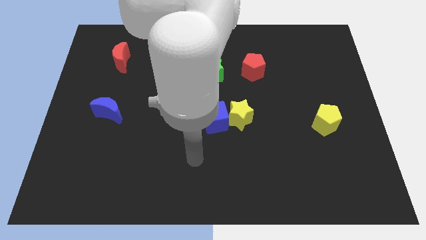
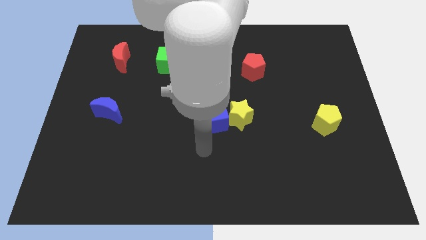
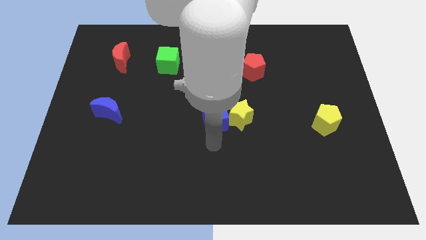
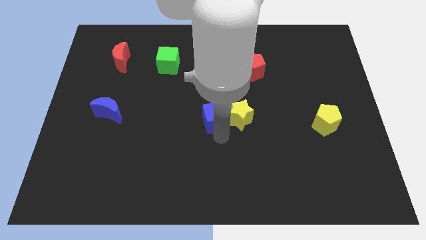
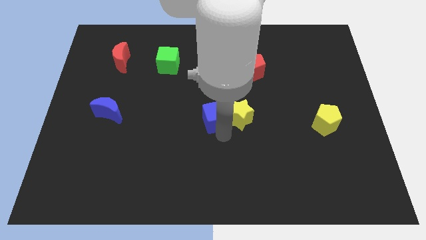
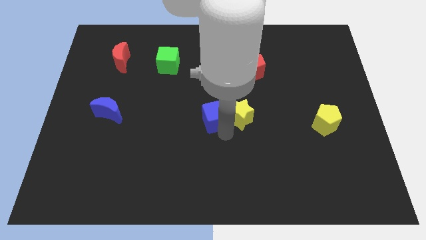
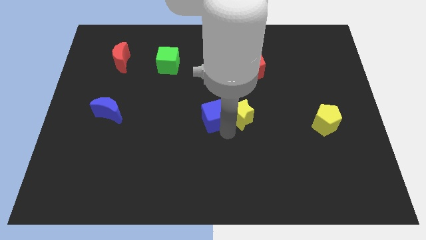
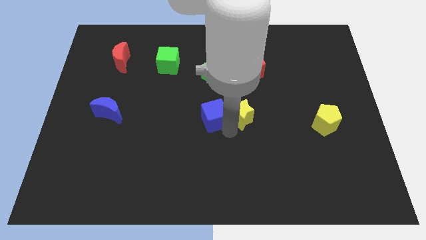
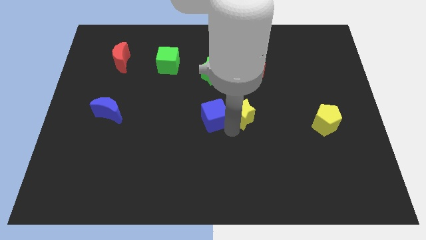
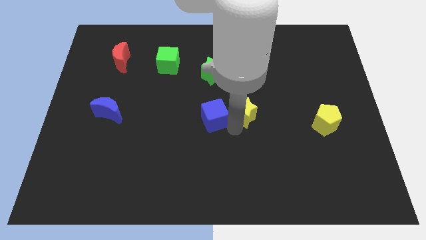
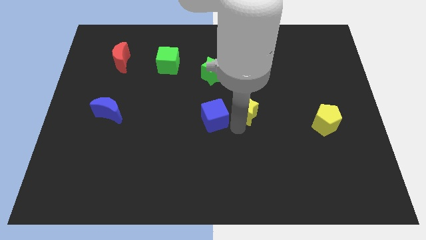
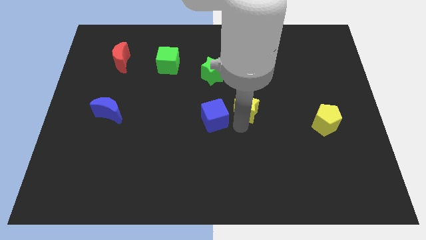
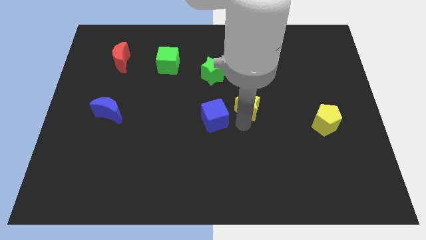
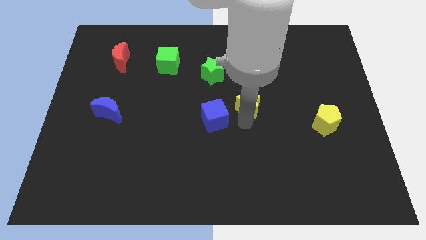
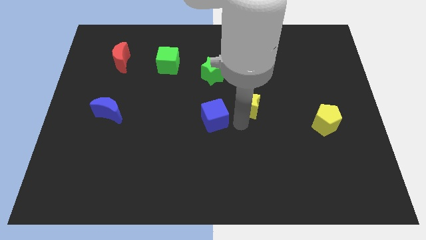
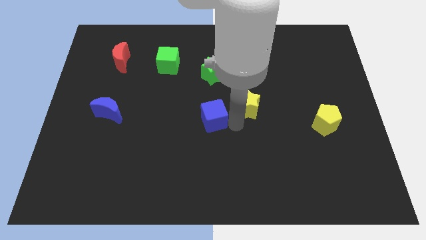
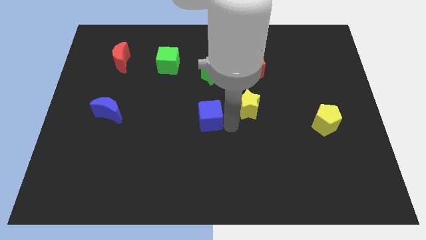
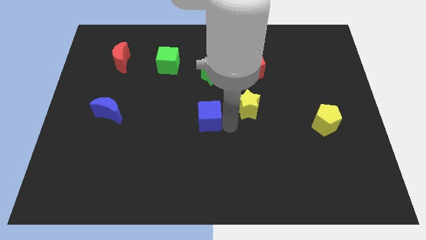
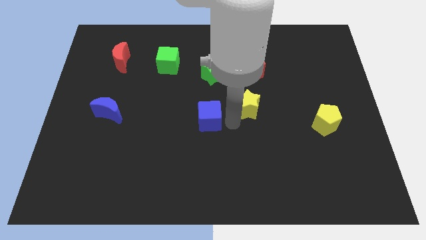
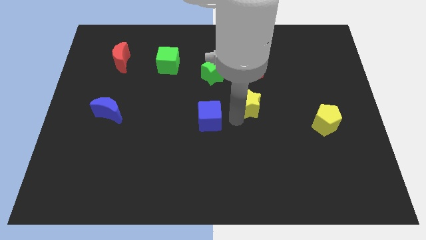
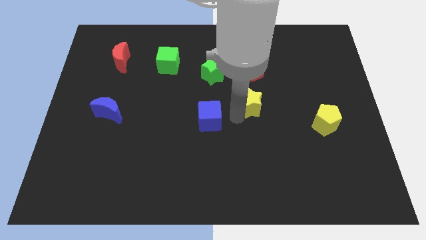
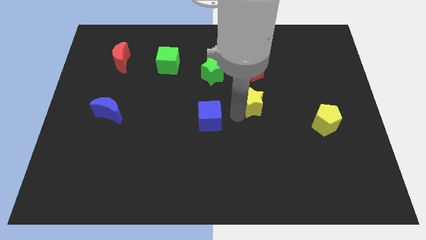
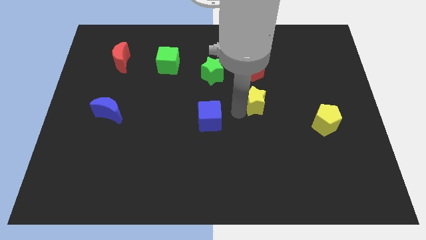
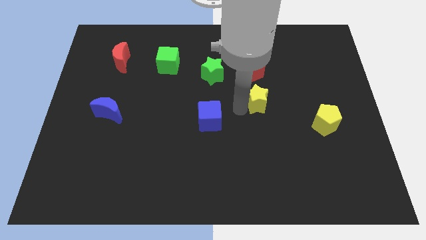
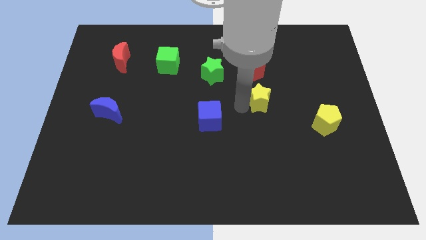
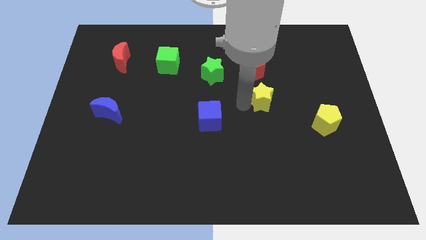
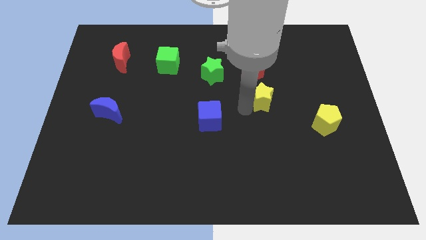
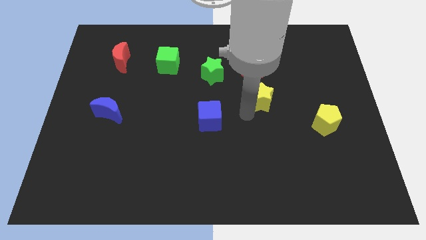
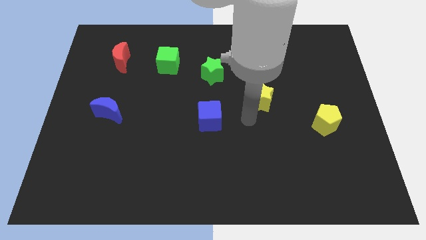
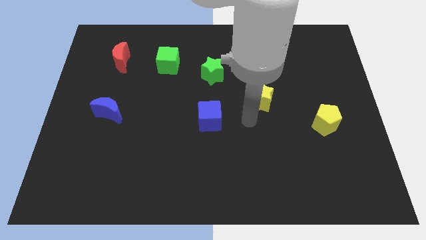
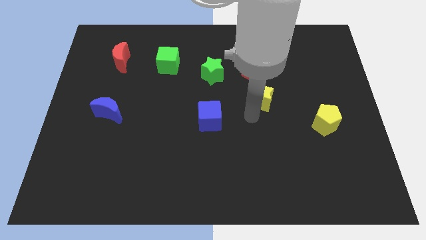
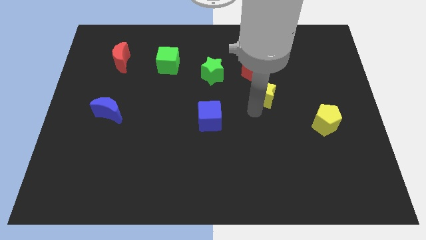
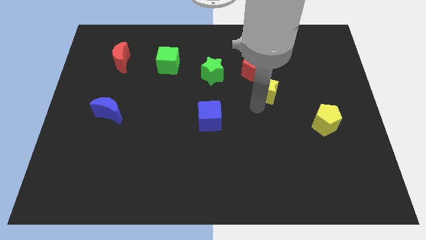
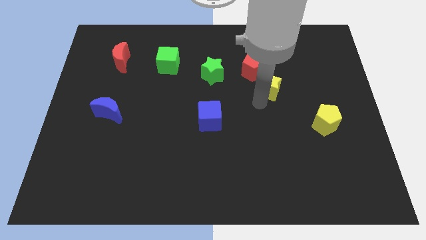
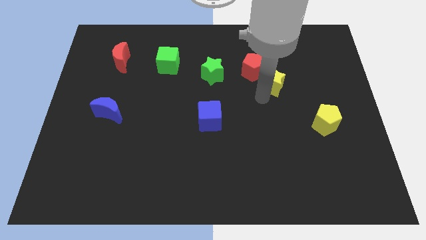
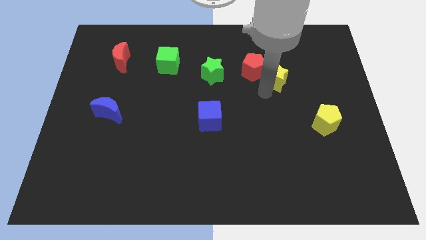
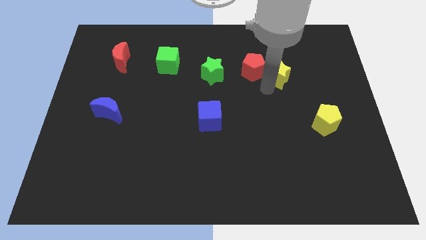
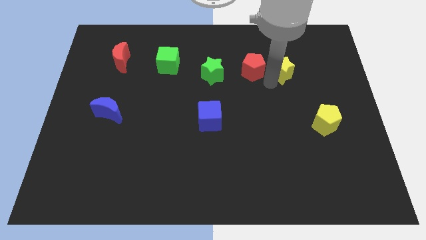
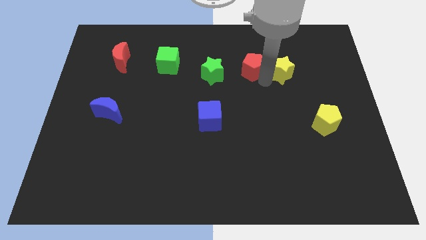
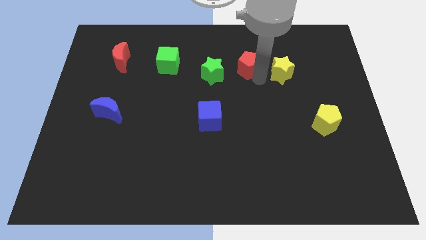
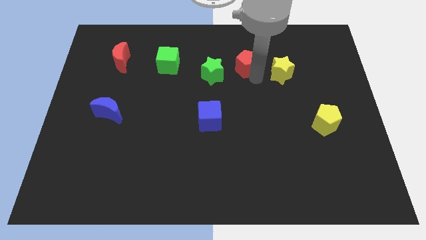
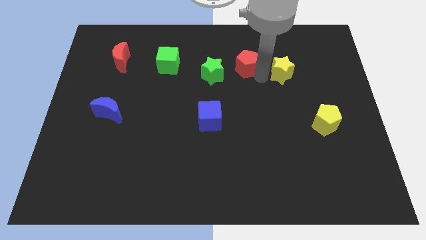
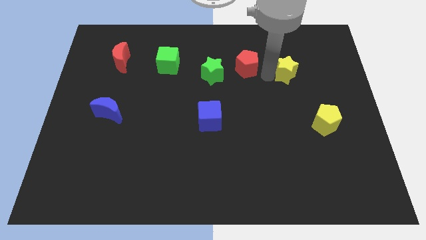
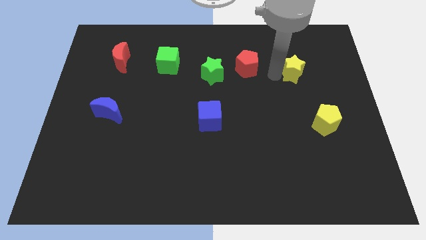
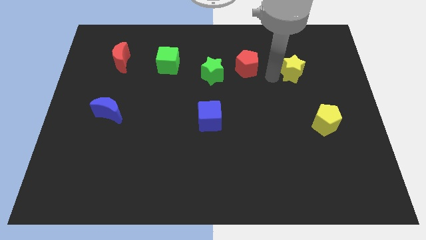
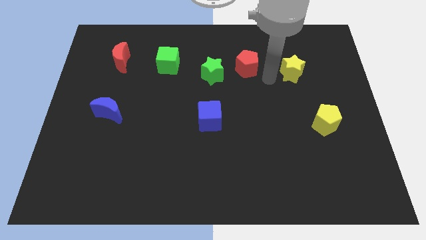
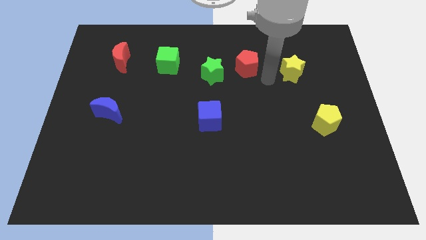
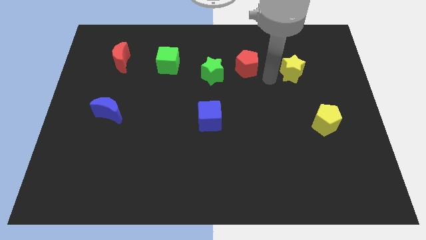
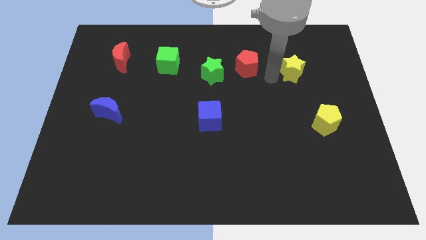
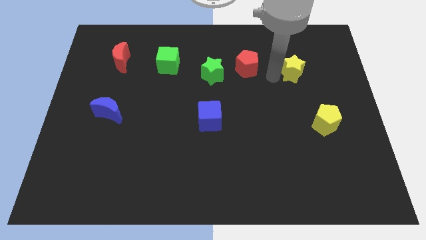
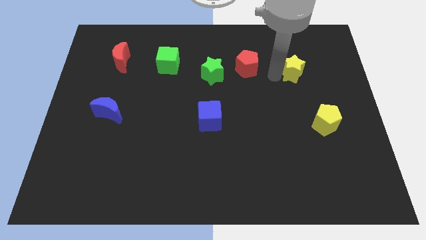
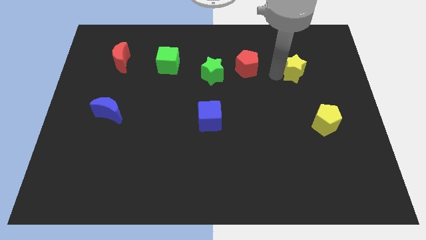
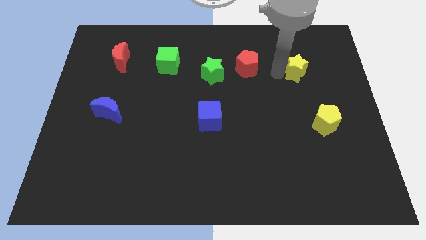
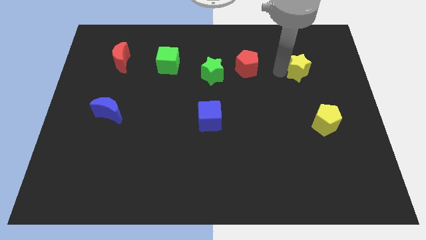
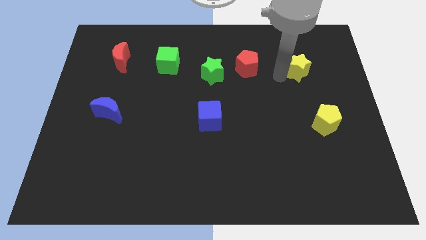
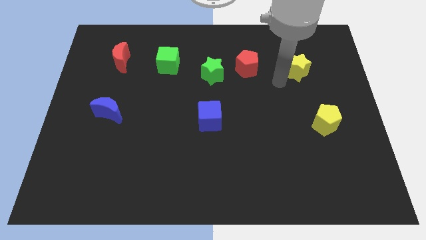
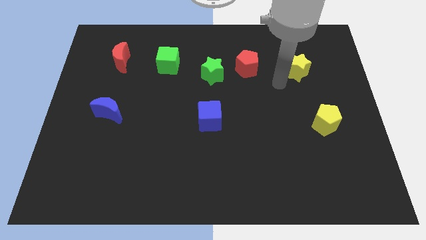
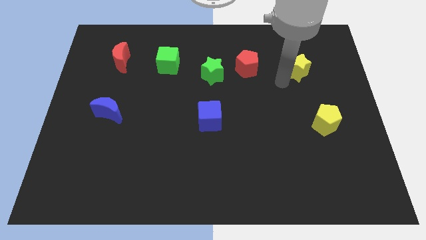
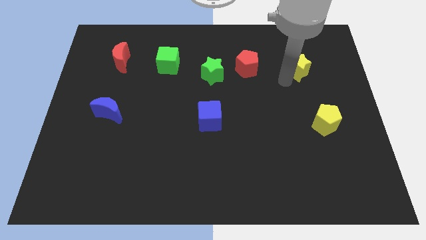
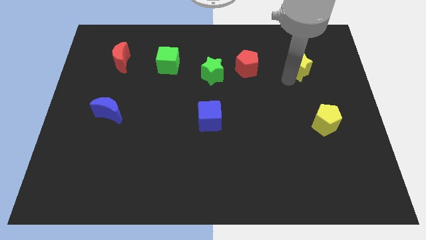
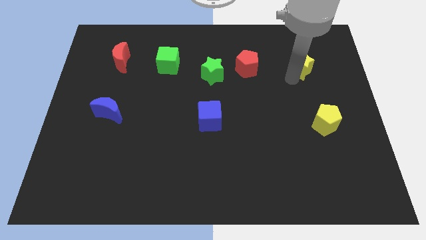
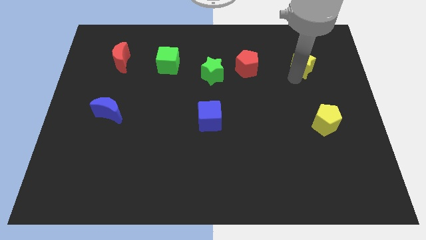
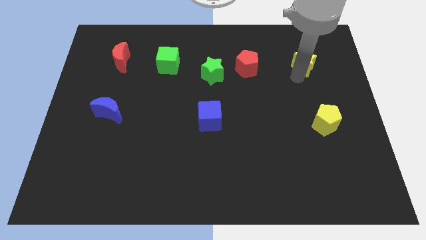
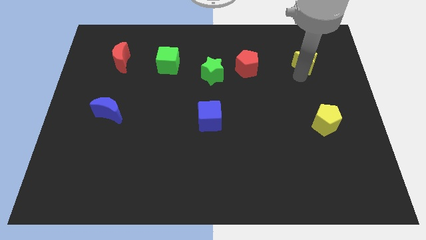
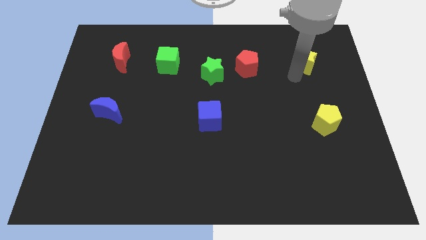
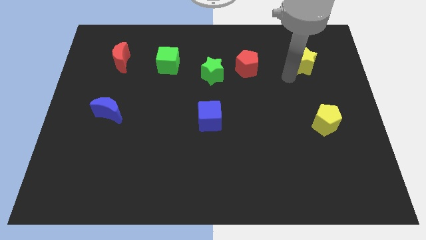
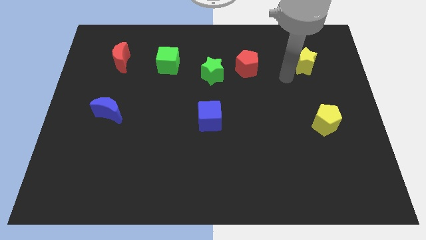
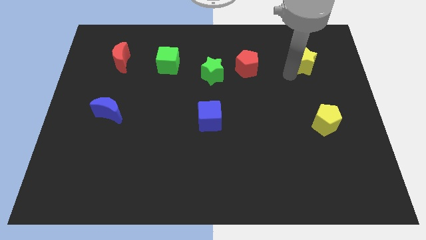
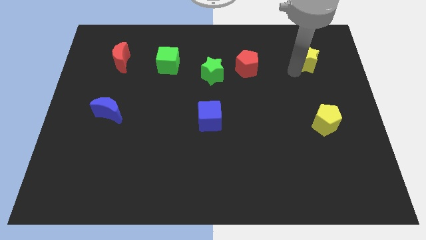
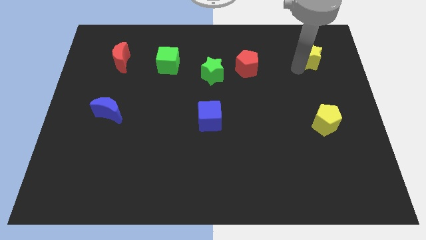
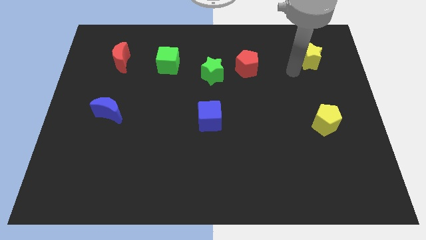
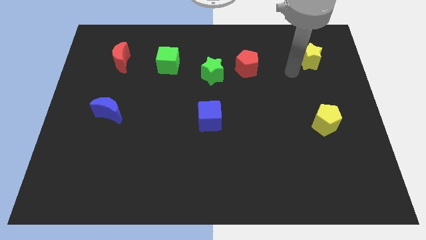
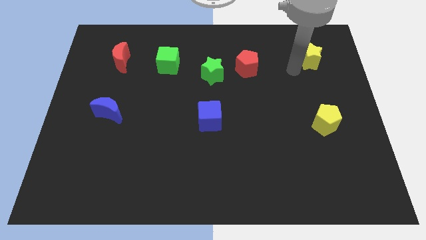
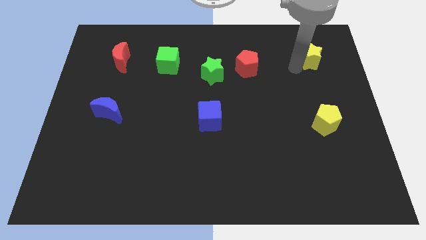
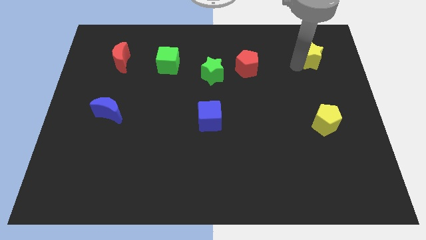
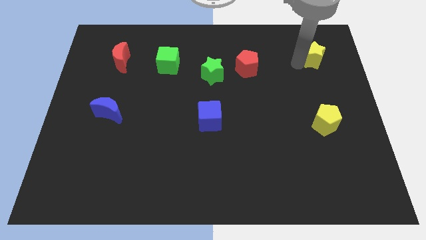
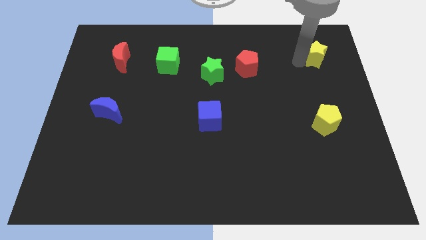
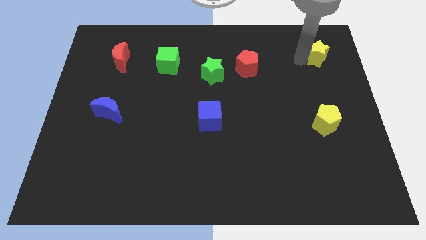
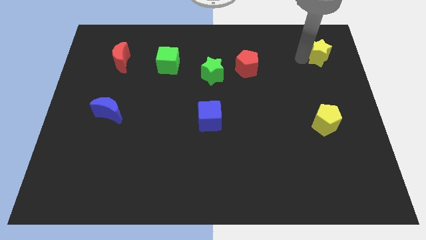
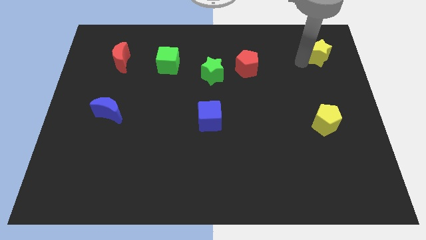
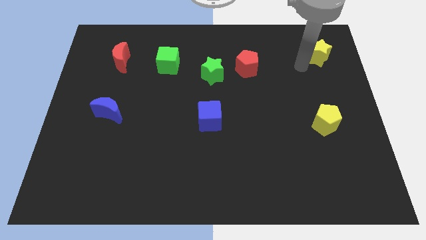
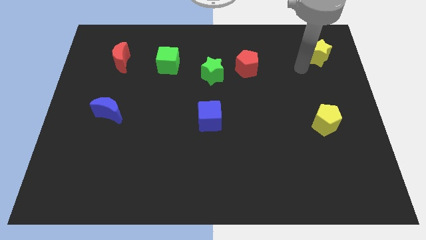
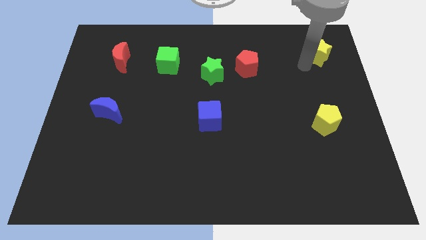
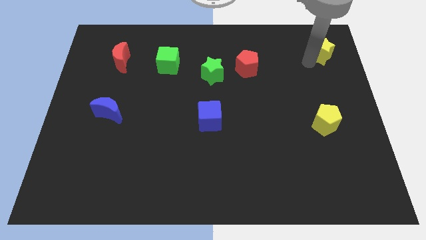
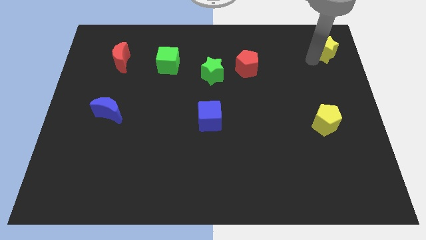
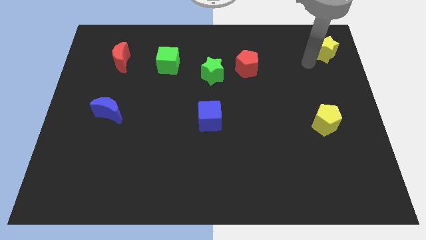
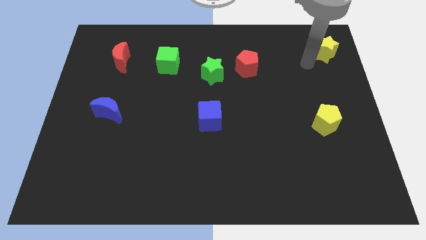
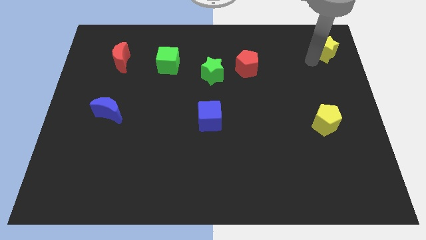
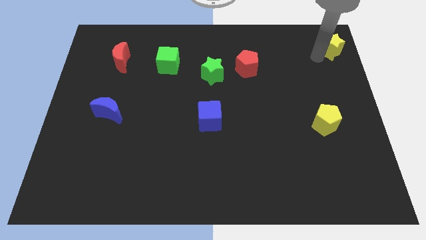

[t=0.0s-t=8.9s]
put the yellow star to the top right of the board
